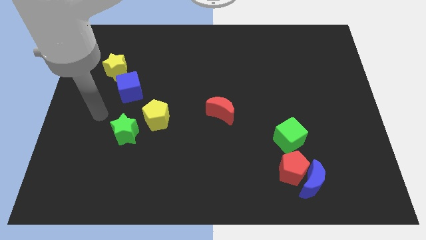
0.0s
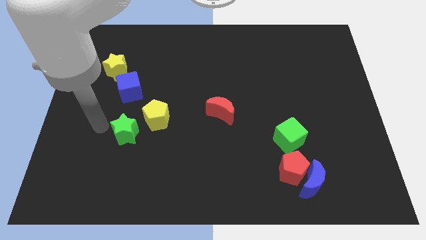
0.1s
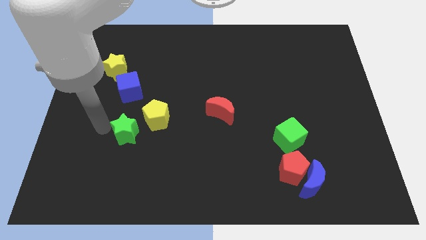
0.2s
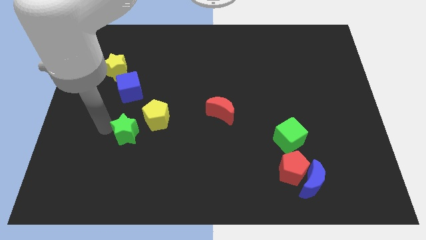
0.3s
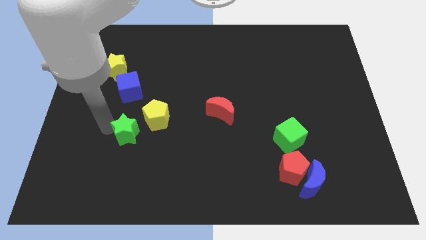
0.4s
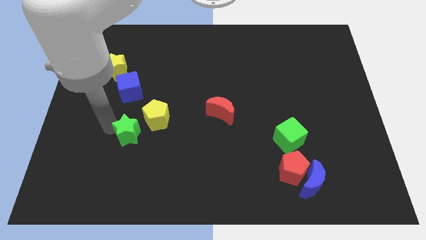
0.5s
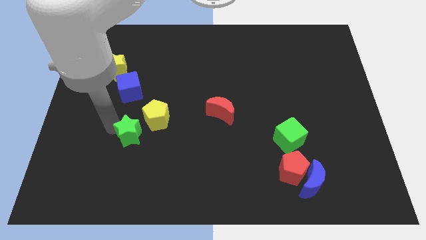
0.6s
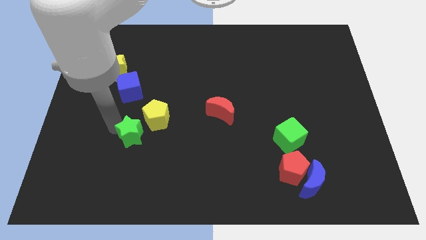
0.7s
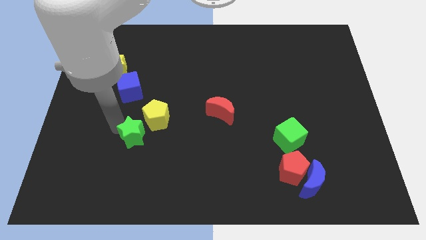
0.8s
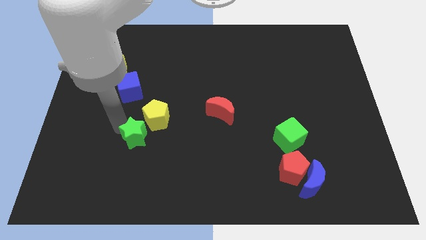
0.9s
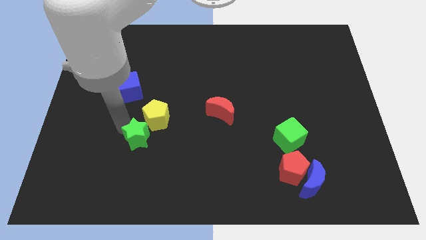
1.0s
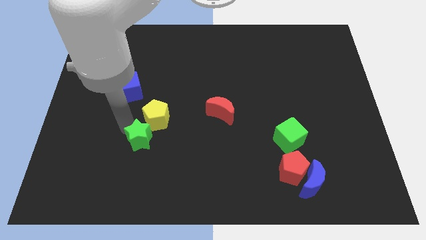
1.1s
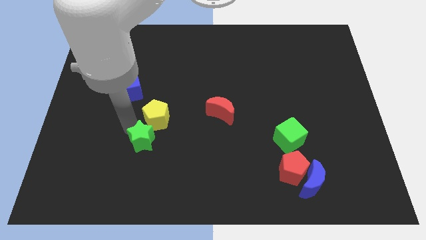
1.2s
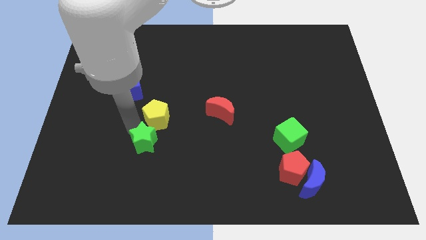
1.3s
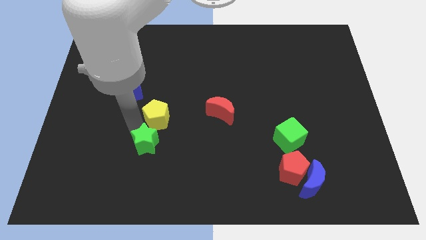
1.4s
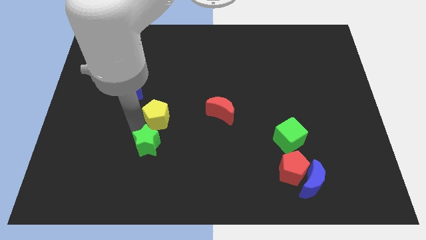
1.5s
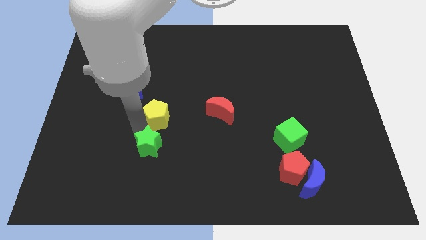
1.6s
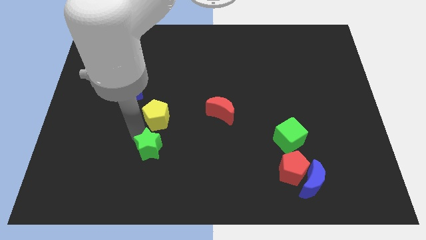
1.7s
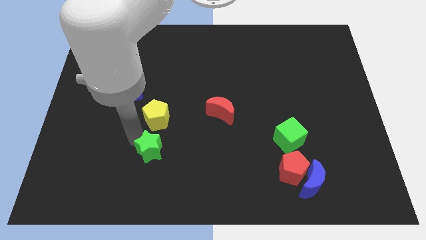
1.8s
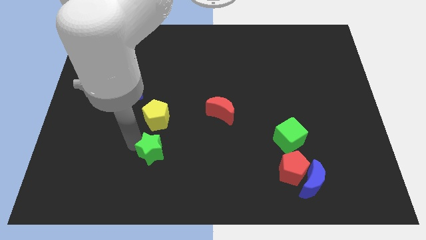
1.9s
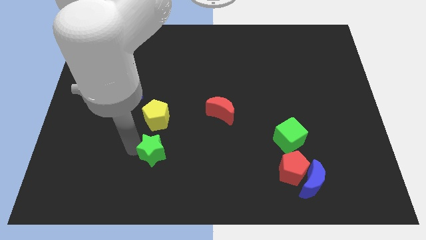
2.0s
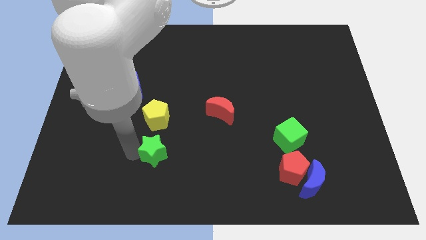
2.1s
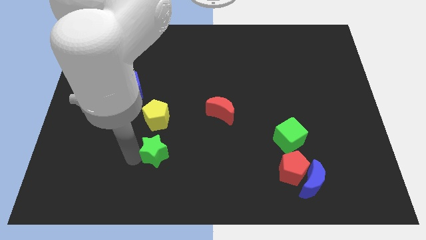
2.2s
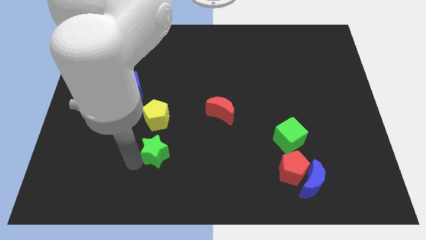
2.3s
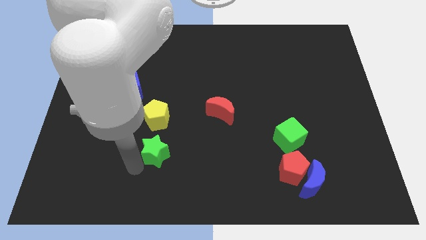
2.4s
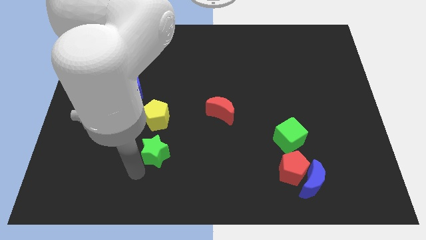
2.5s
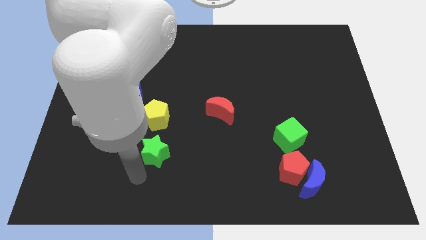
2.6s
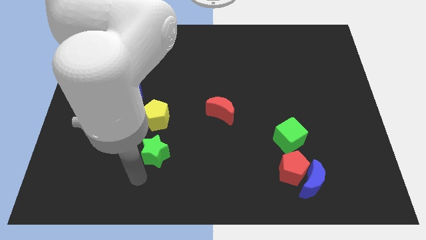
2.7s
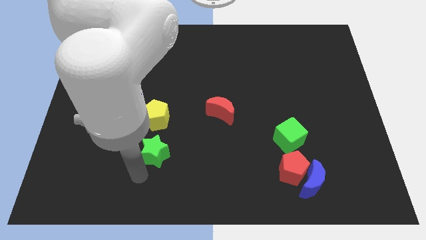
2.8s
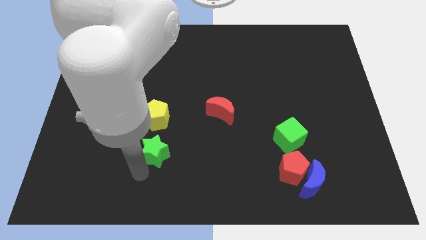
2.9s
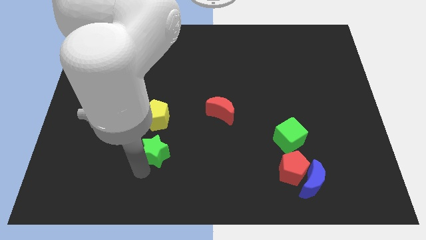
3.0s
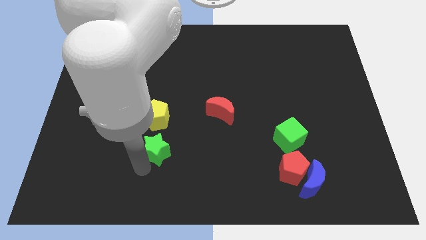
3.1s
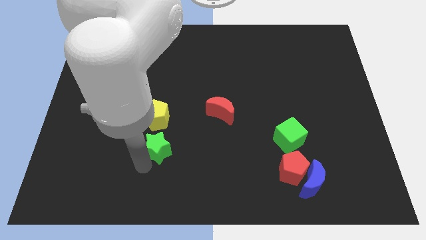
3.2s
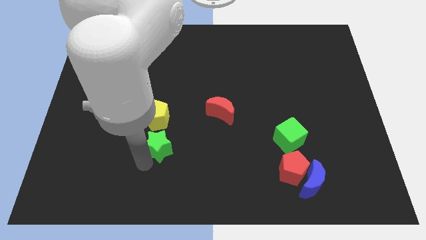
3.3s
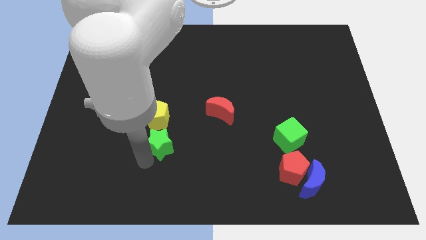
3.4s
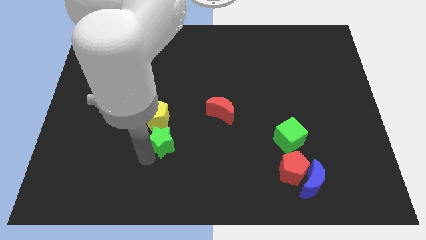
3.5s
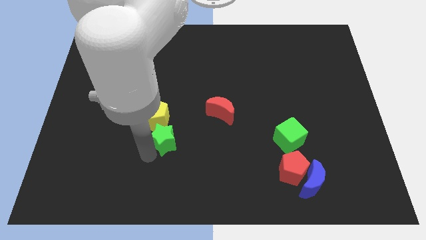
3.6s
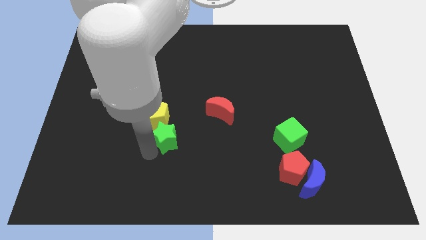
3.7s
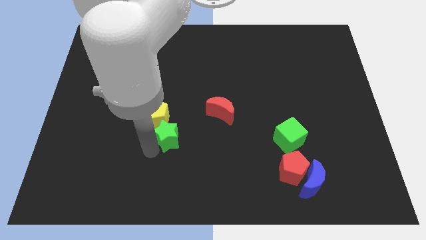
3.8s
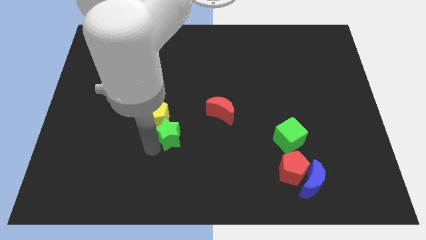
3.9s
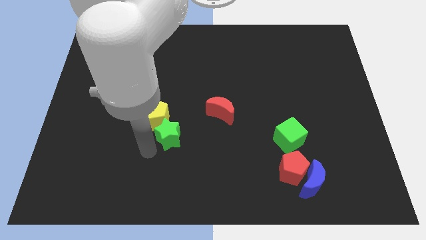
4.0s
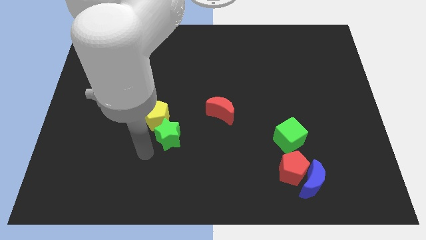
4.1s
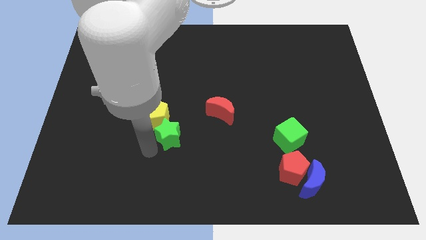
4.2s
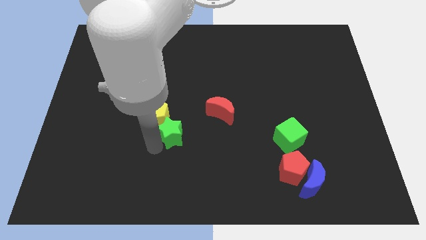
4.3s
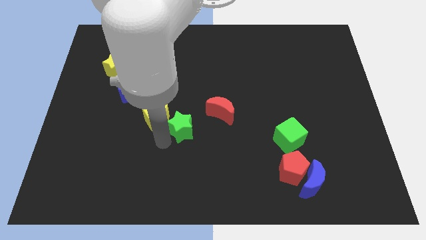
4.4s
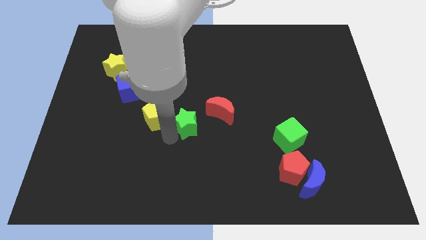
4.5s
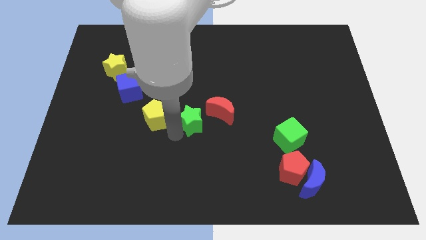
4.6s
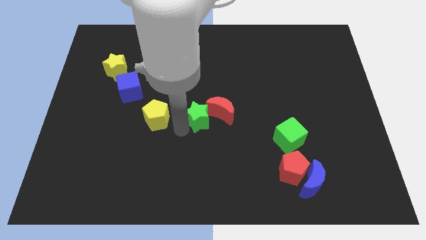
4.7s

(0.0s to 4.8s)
push the green star to the red moon

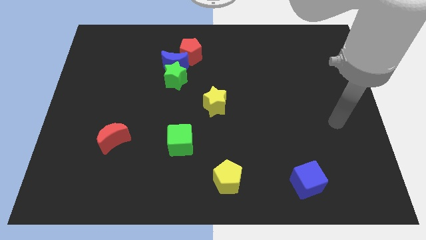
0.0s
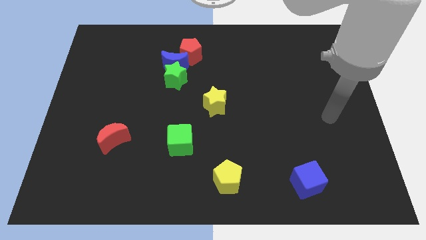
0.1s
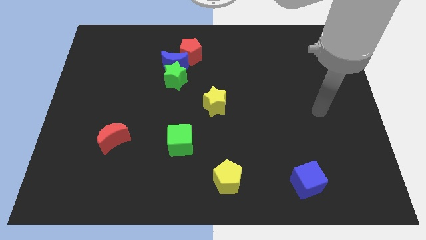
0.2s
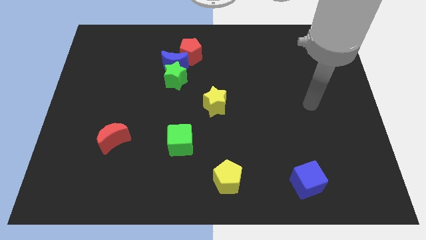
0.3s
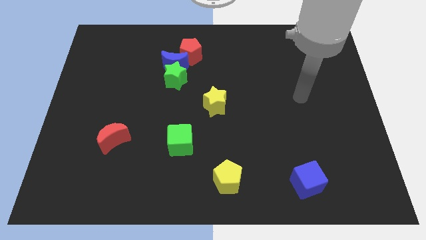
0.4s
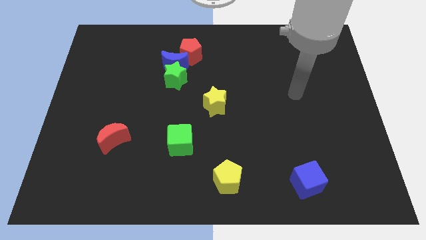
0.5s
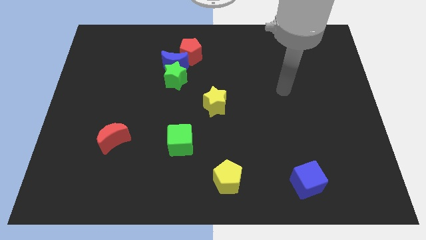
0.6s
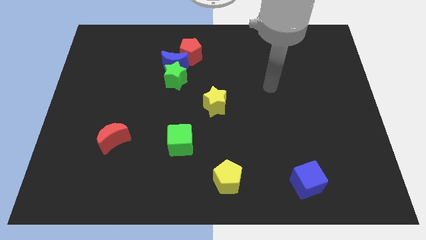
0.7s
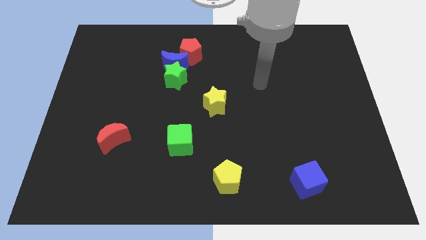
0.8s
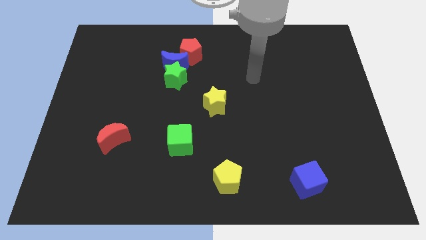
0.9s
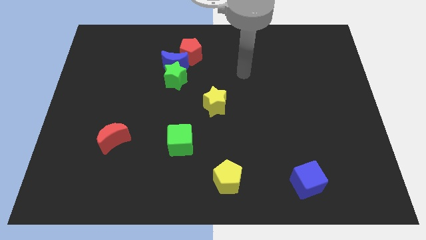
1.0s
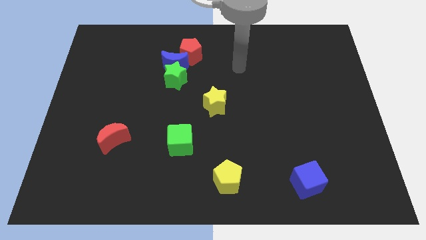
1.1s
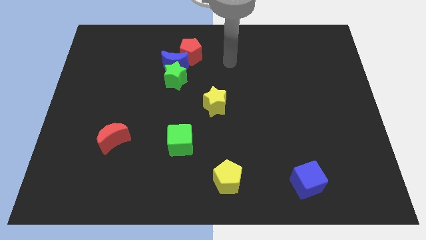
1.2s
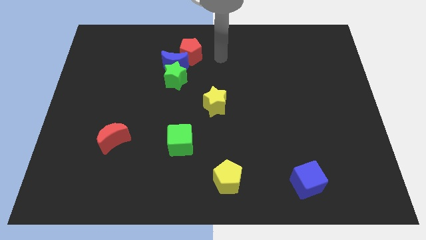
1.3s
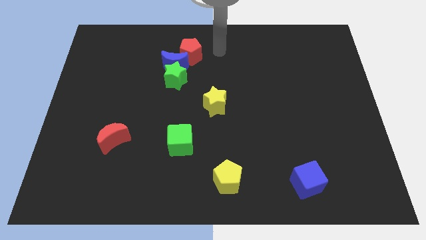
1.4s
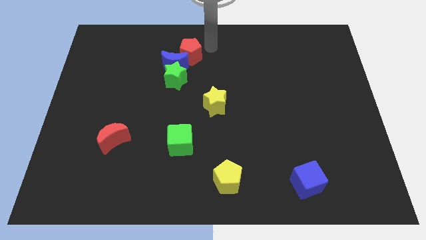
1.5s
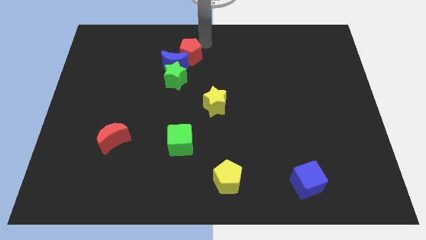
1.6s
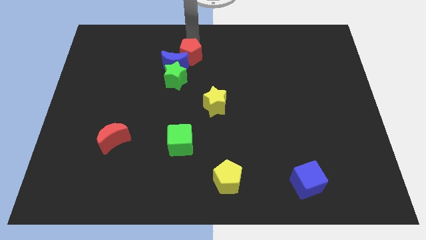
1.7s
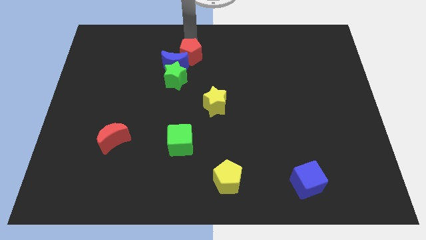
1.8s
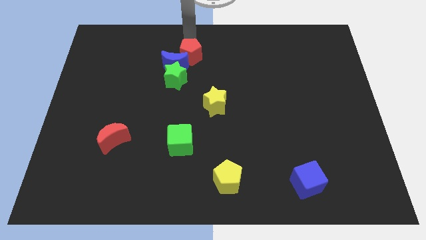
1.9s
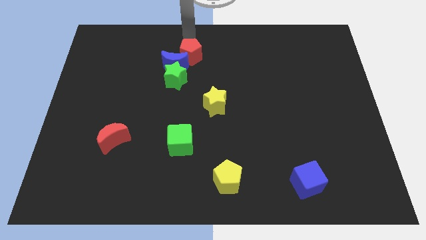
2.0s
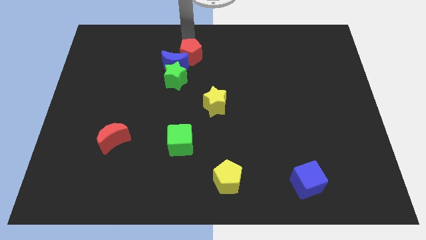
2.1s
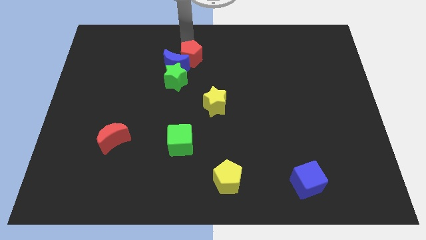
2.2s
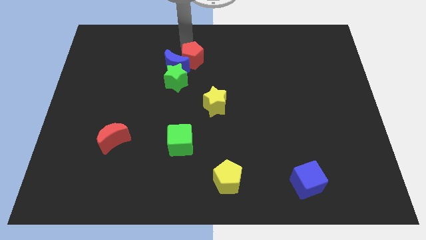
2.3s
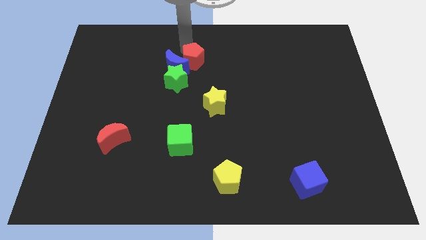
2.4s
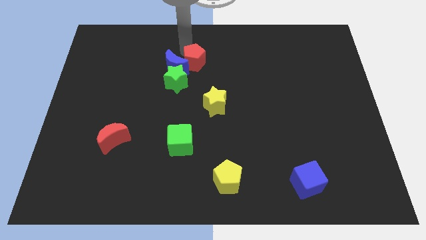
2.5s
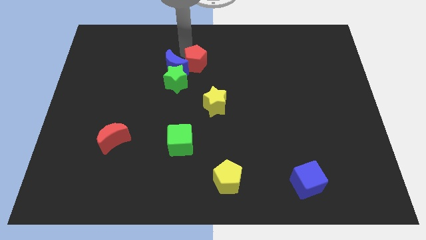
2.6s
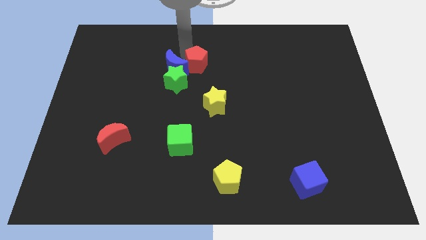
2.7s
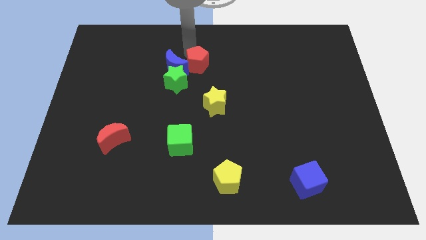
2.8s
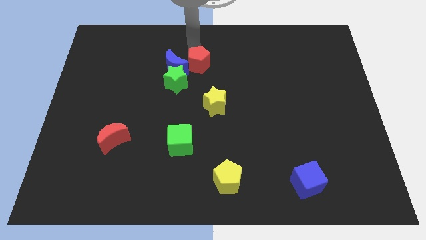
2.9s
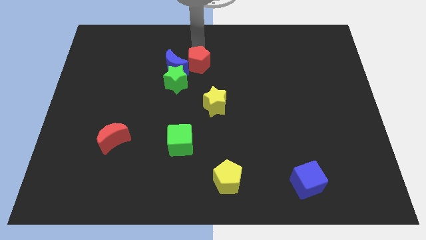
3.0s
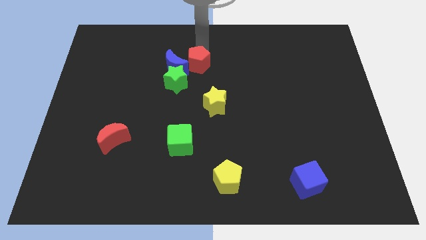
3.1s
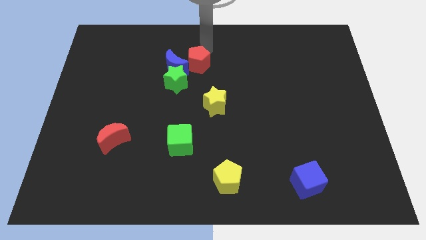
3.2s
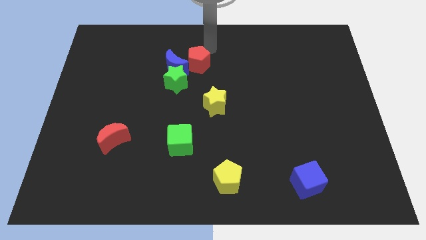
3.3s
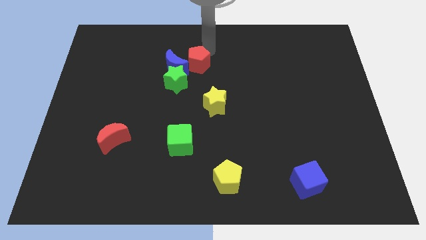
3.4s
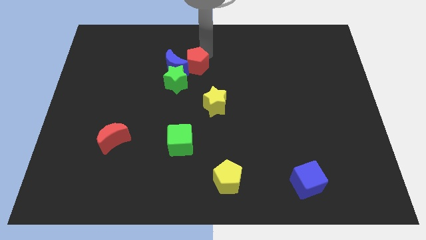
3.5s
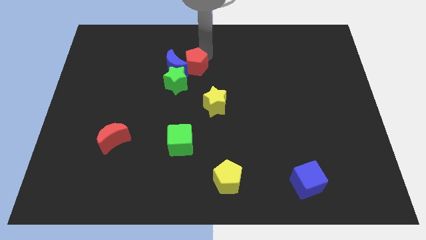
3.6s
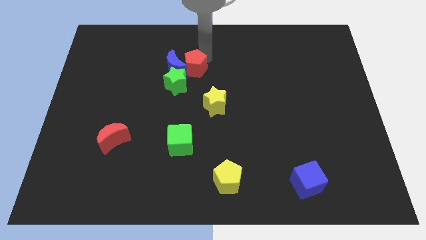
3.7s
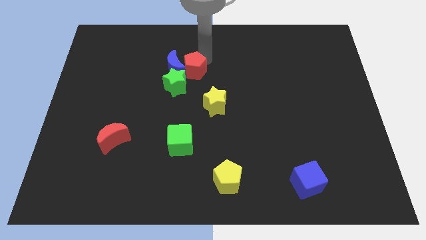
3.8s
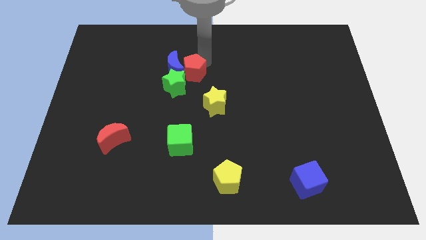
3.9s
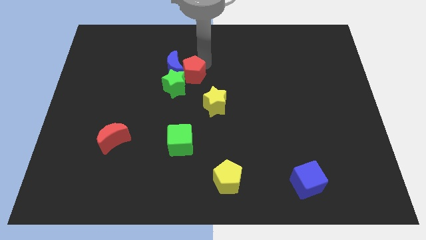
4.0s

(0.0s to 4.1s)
push the red pentagon next to the green star
